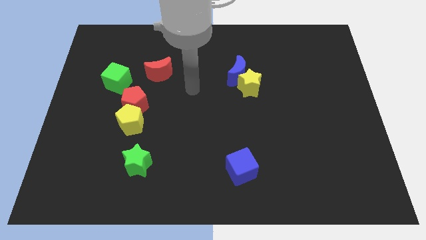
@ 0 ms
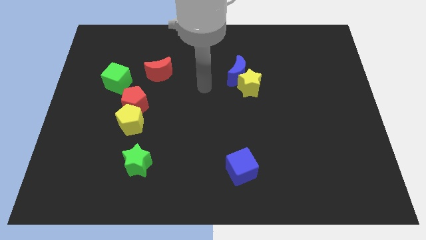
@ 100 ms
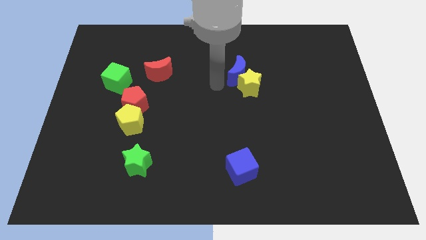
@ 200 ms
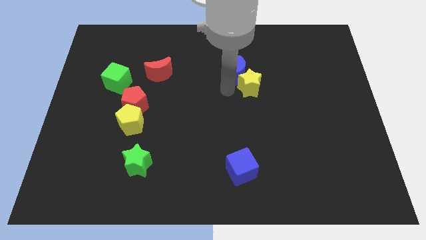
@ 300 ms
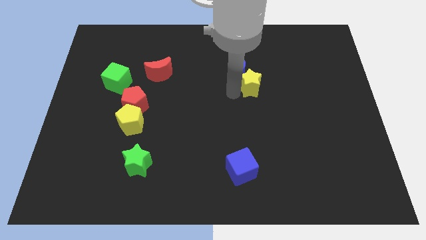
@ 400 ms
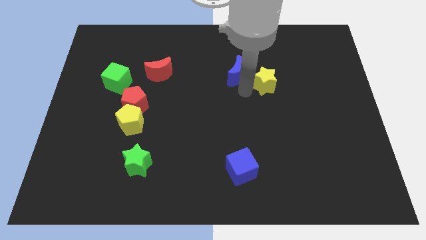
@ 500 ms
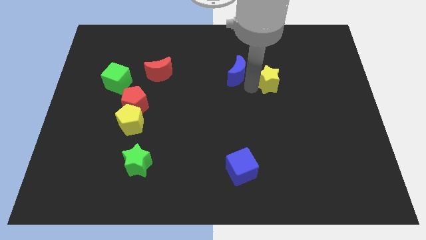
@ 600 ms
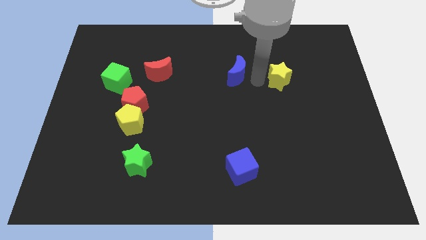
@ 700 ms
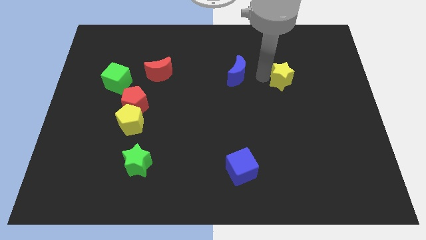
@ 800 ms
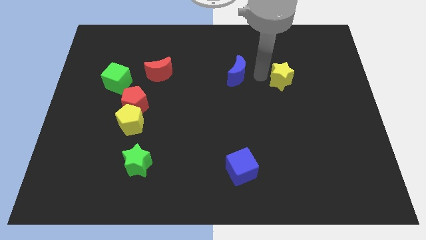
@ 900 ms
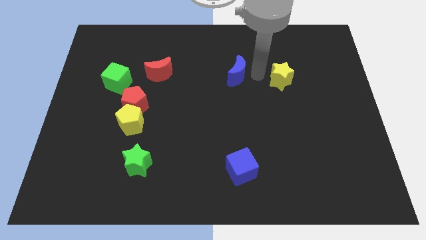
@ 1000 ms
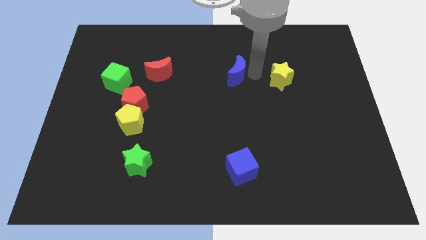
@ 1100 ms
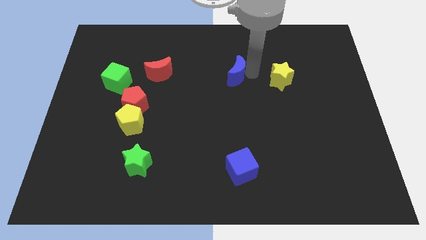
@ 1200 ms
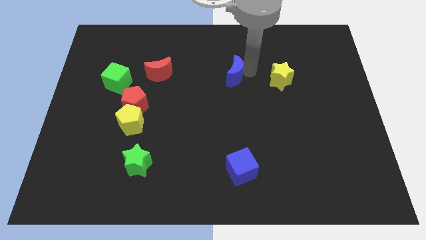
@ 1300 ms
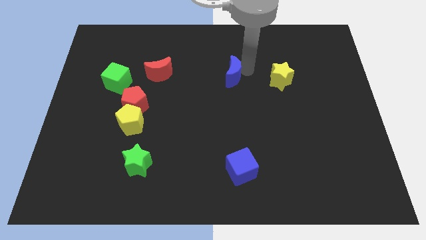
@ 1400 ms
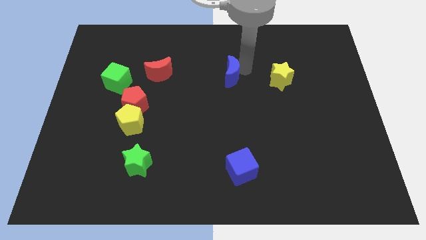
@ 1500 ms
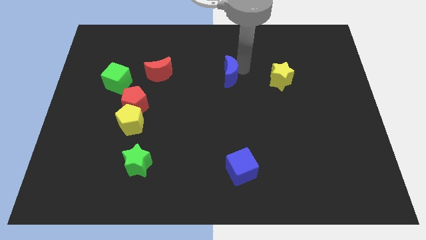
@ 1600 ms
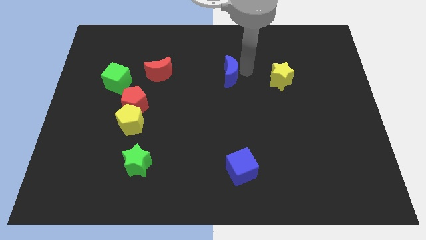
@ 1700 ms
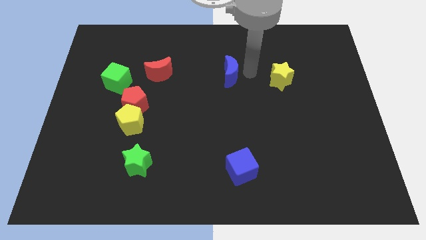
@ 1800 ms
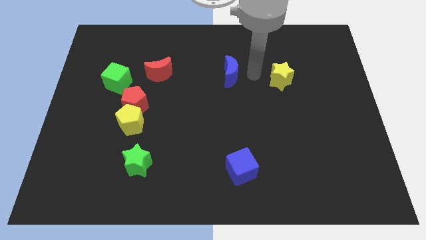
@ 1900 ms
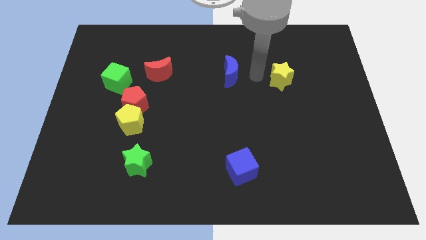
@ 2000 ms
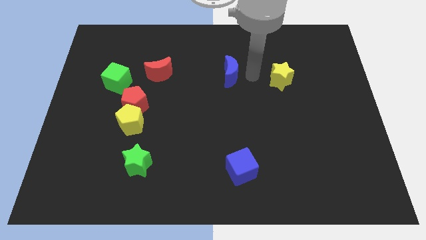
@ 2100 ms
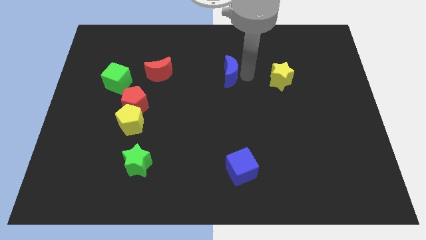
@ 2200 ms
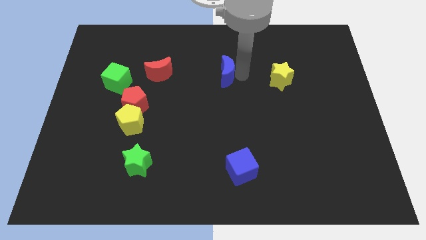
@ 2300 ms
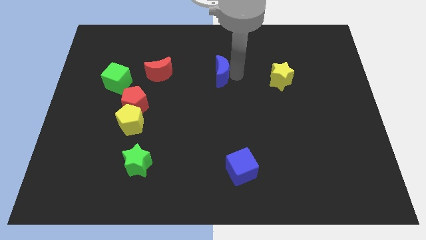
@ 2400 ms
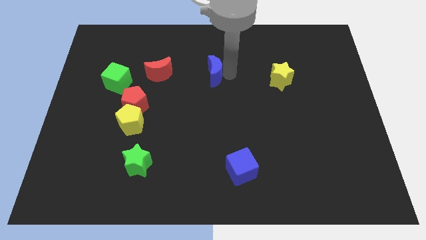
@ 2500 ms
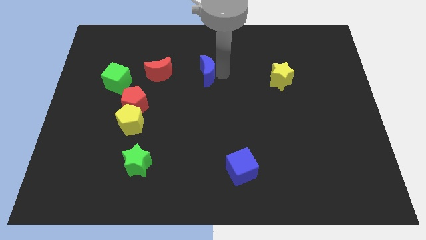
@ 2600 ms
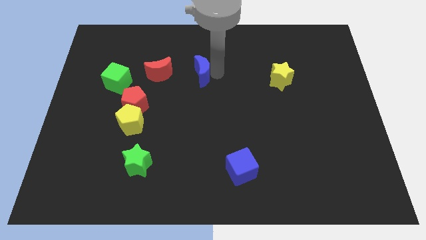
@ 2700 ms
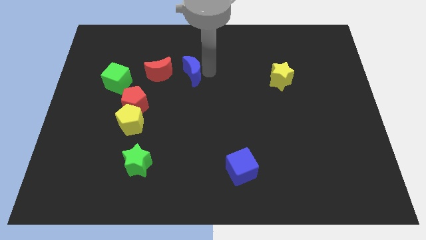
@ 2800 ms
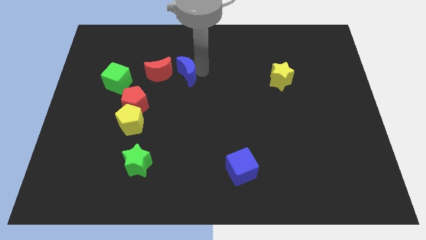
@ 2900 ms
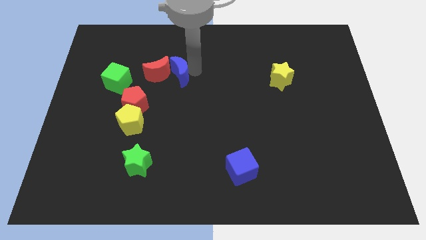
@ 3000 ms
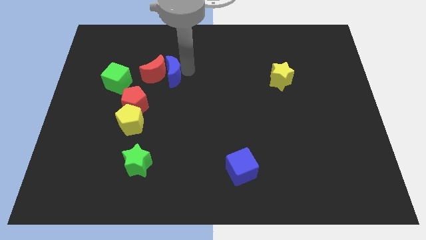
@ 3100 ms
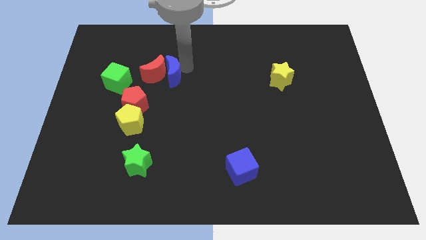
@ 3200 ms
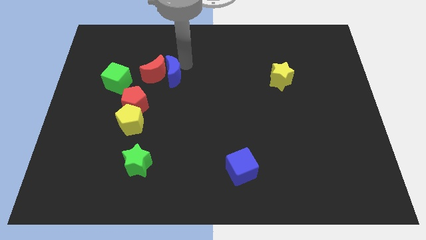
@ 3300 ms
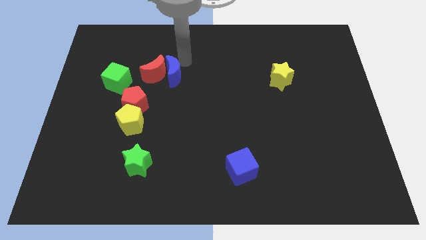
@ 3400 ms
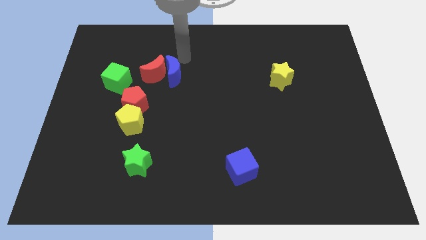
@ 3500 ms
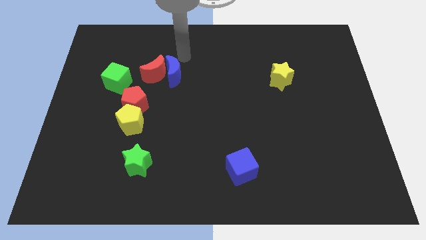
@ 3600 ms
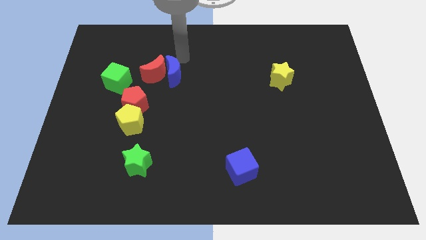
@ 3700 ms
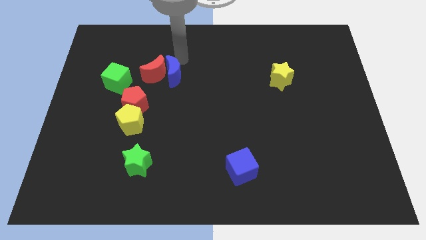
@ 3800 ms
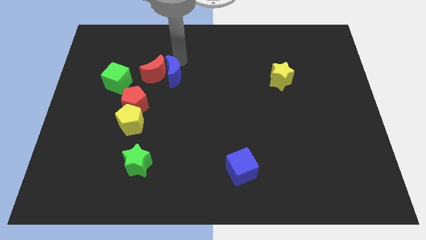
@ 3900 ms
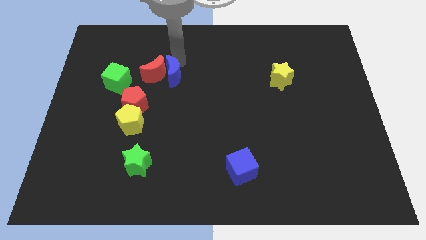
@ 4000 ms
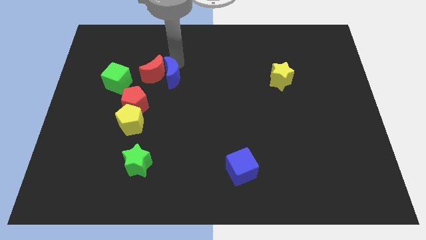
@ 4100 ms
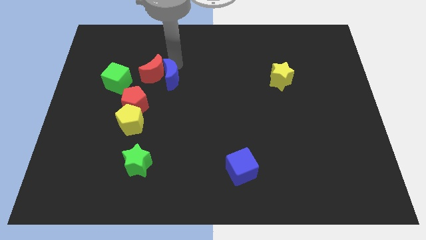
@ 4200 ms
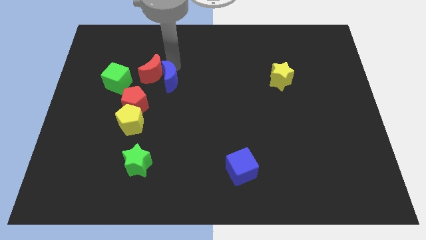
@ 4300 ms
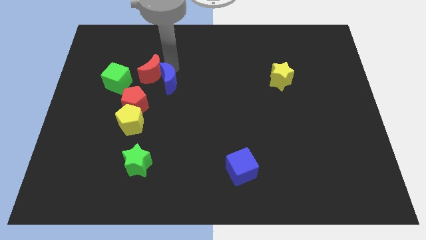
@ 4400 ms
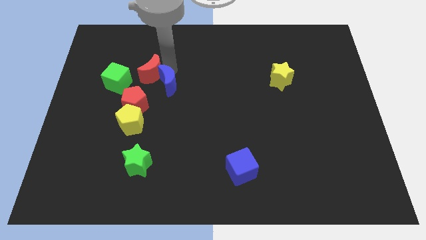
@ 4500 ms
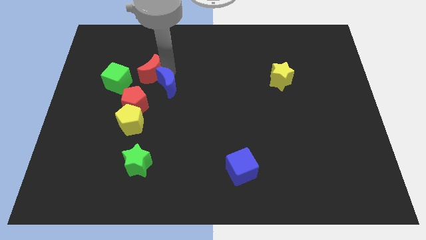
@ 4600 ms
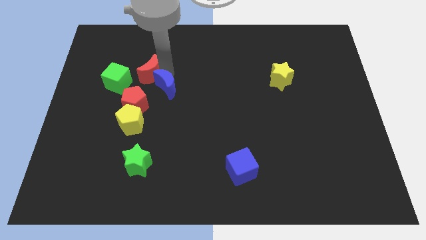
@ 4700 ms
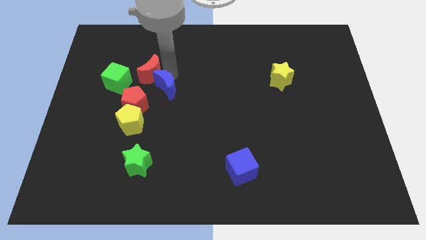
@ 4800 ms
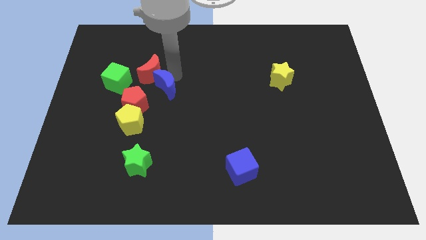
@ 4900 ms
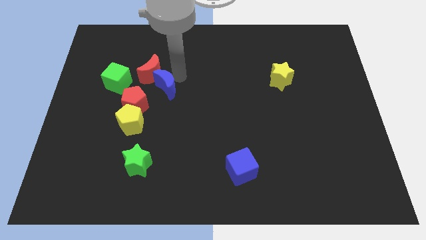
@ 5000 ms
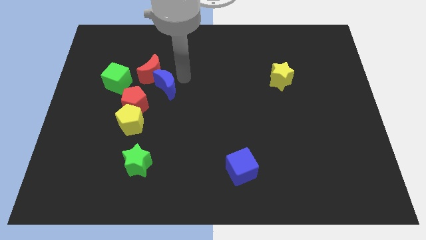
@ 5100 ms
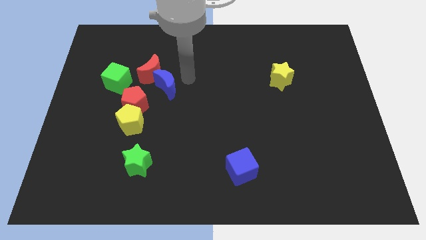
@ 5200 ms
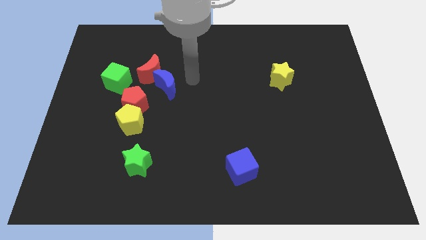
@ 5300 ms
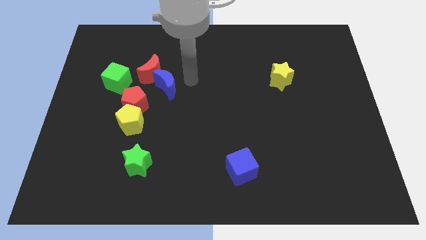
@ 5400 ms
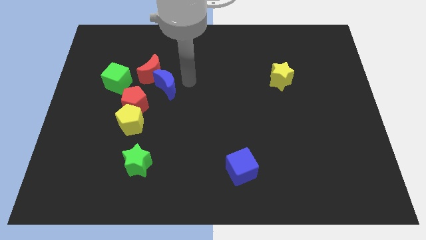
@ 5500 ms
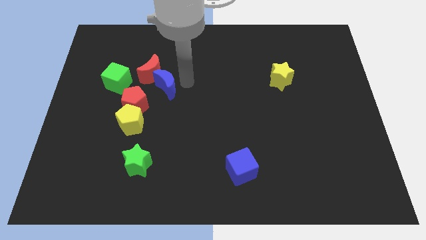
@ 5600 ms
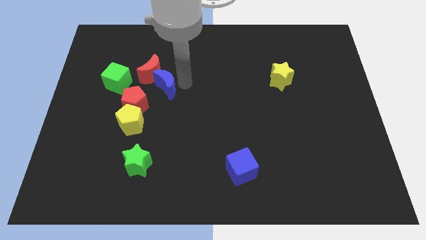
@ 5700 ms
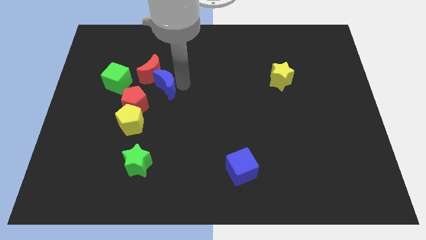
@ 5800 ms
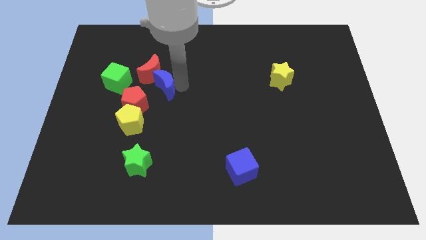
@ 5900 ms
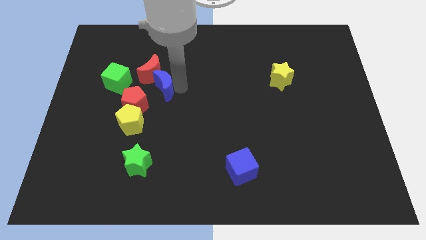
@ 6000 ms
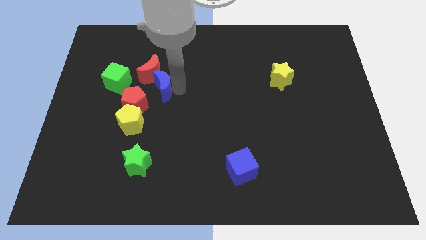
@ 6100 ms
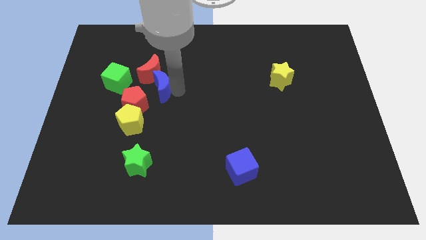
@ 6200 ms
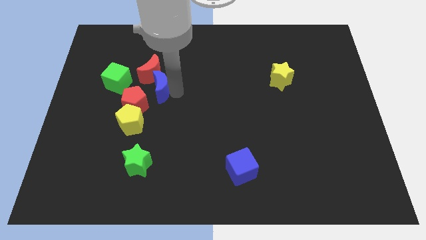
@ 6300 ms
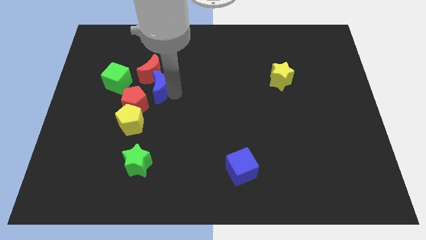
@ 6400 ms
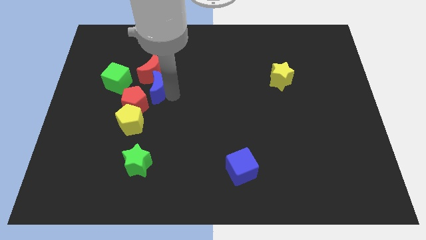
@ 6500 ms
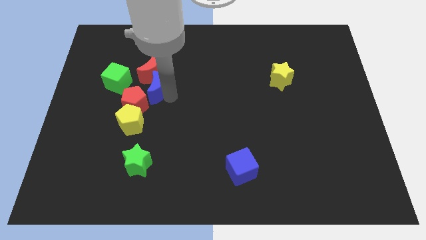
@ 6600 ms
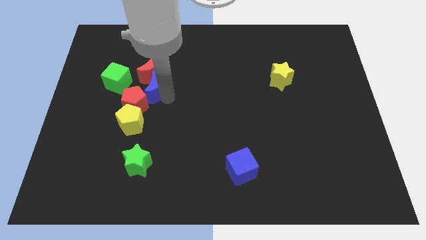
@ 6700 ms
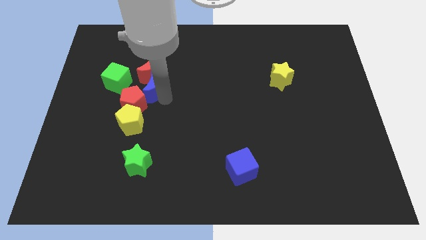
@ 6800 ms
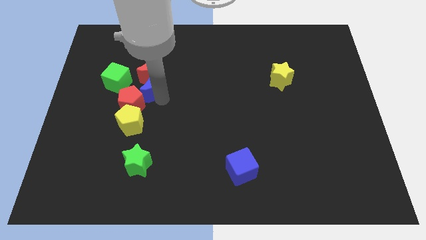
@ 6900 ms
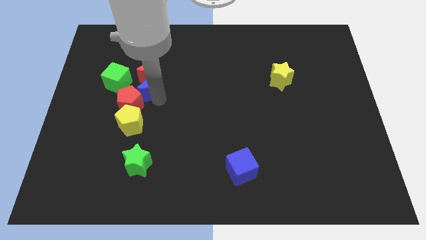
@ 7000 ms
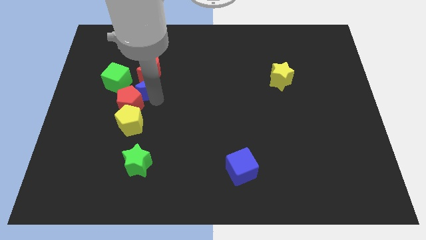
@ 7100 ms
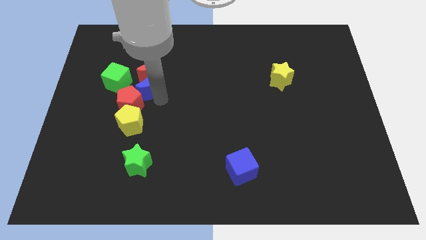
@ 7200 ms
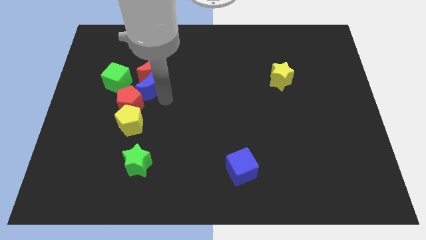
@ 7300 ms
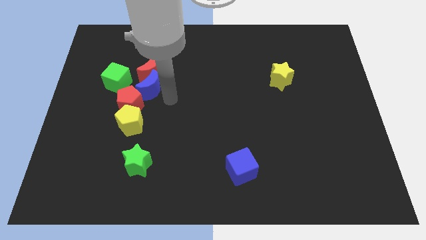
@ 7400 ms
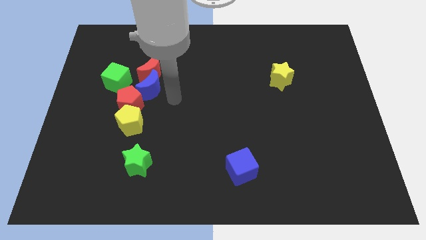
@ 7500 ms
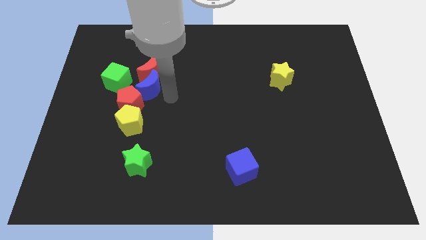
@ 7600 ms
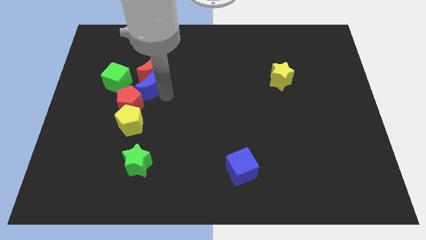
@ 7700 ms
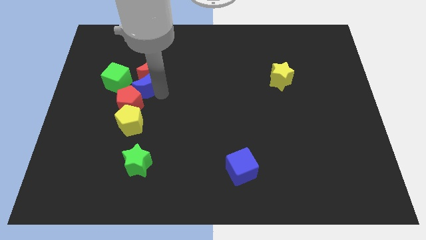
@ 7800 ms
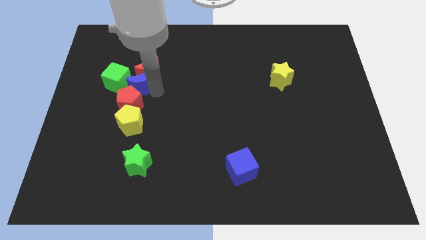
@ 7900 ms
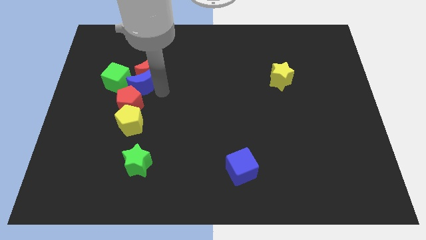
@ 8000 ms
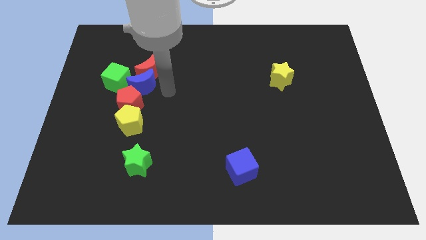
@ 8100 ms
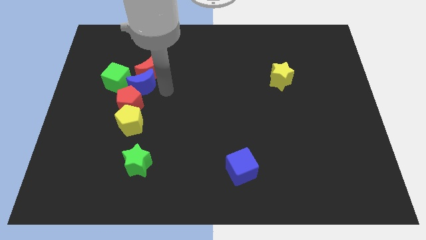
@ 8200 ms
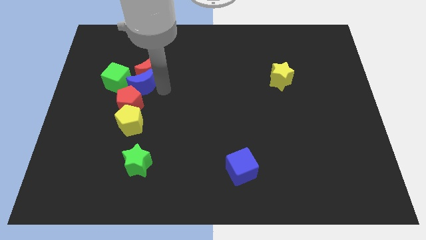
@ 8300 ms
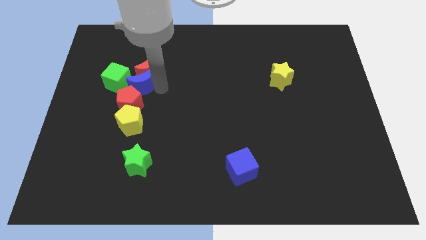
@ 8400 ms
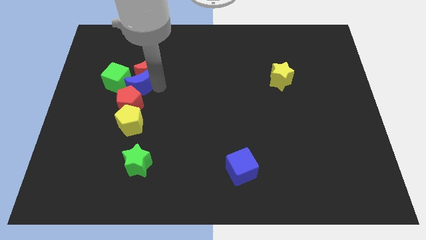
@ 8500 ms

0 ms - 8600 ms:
put the blue moon next to the green cube
